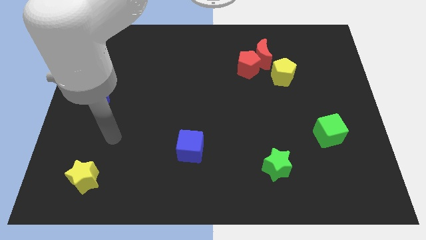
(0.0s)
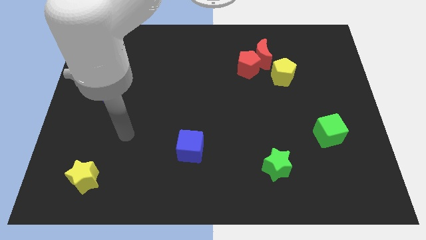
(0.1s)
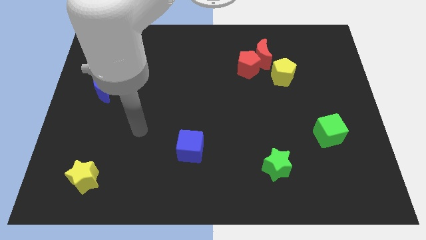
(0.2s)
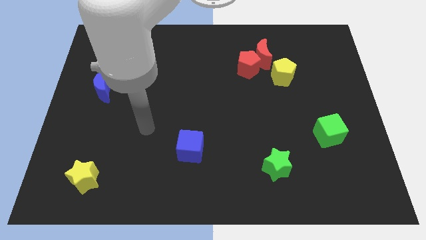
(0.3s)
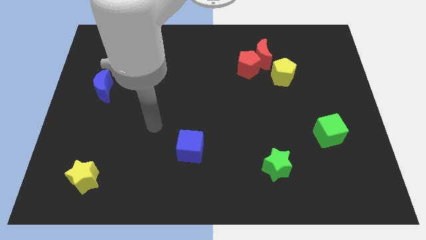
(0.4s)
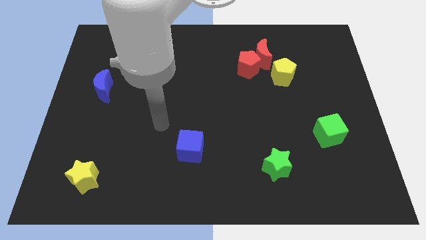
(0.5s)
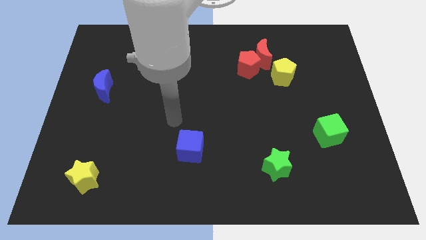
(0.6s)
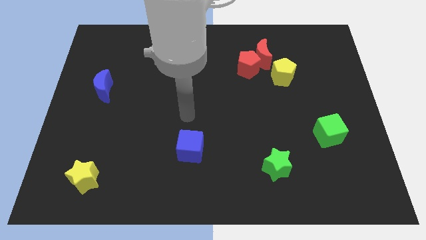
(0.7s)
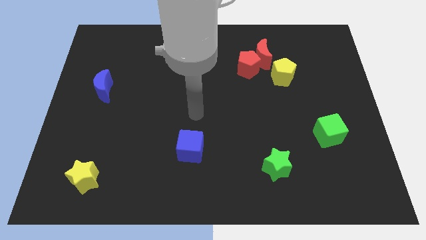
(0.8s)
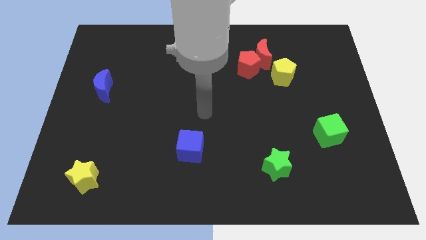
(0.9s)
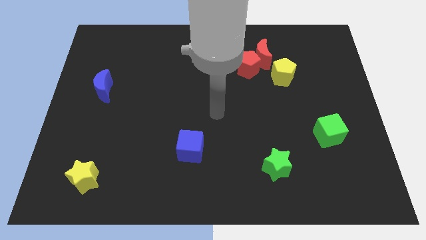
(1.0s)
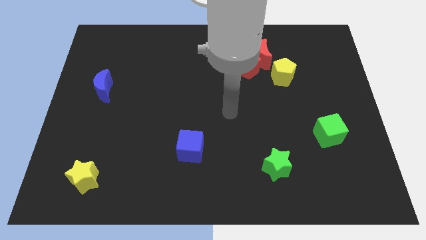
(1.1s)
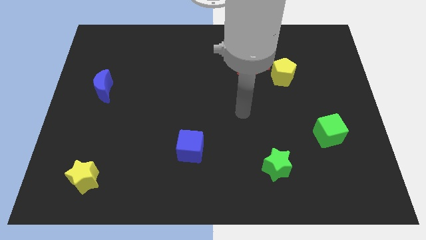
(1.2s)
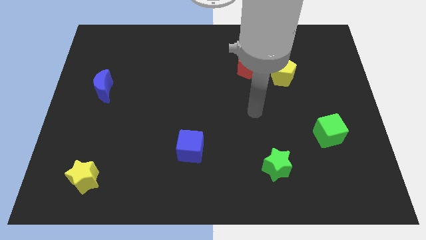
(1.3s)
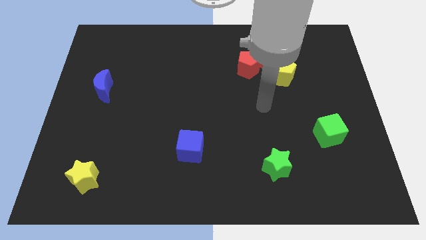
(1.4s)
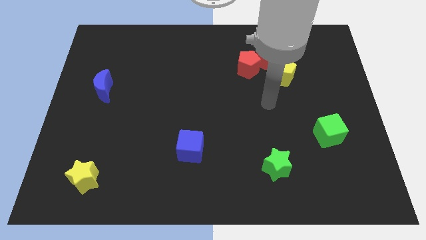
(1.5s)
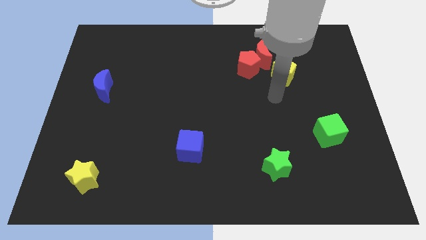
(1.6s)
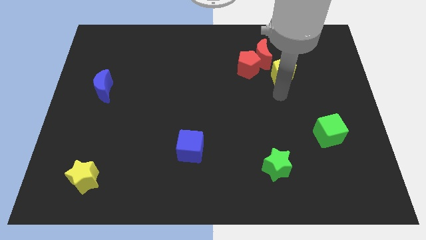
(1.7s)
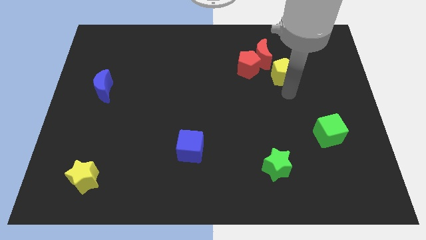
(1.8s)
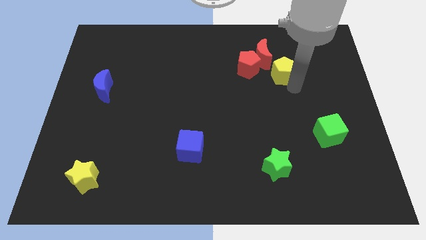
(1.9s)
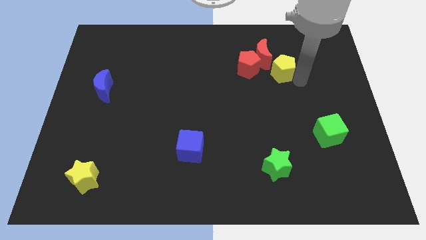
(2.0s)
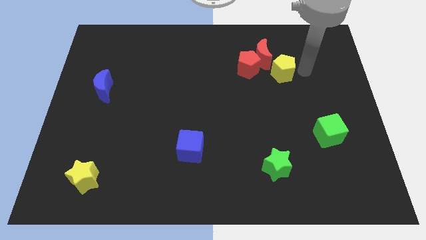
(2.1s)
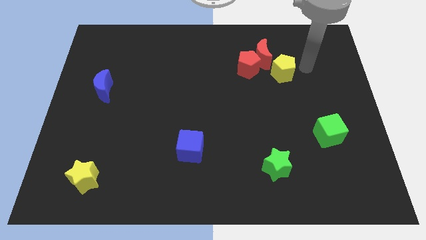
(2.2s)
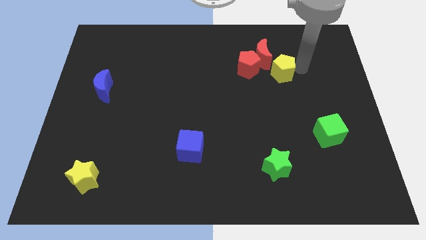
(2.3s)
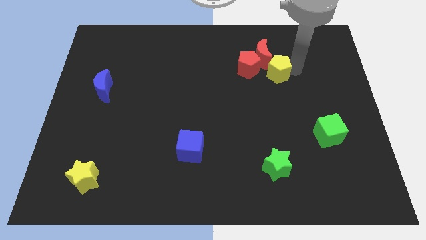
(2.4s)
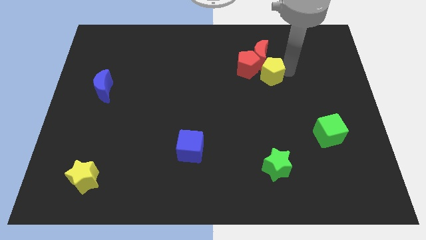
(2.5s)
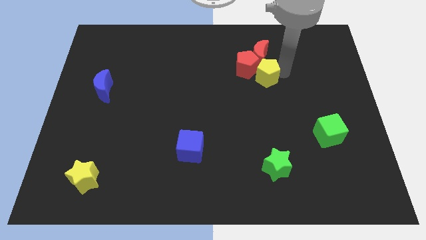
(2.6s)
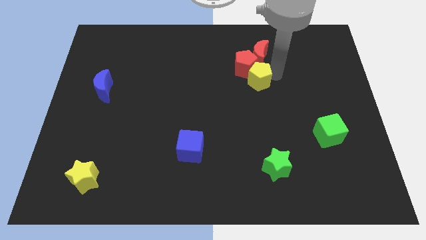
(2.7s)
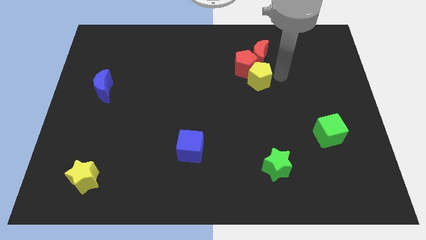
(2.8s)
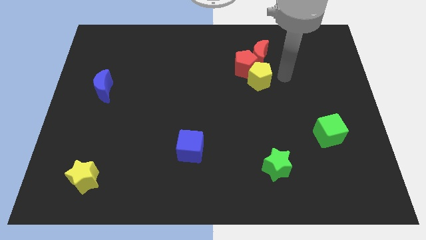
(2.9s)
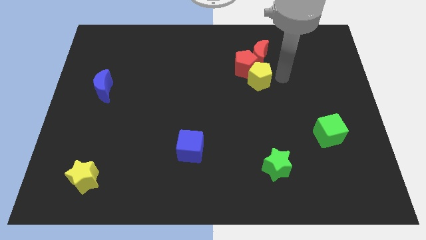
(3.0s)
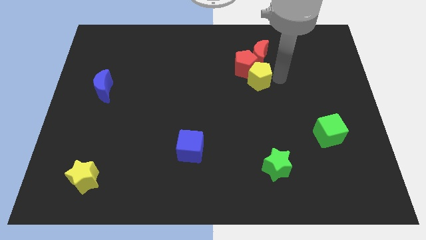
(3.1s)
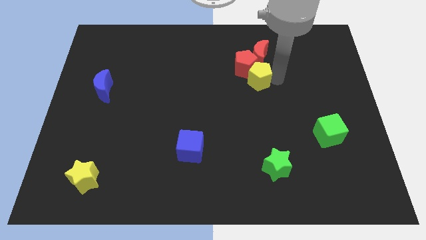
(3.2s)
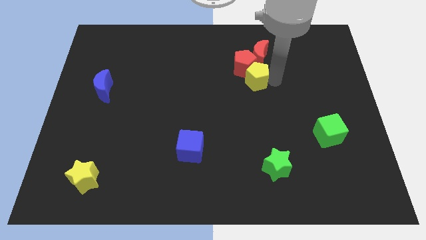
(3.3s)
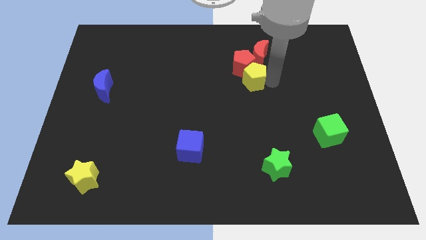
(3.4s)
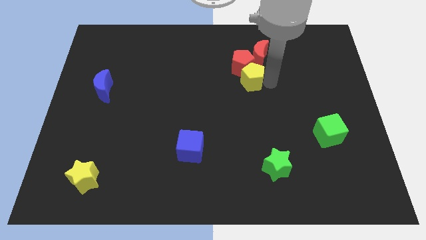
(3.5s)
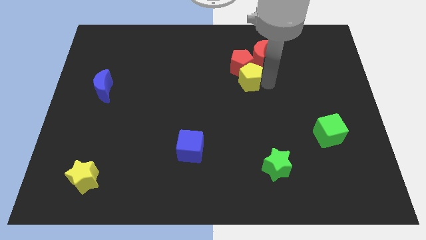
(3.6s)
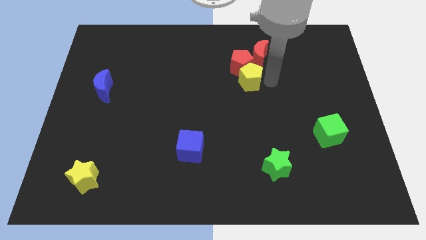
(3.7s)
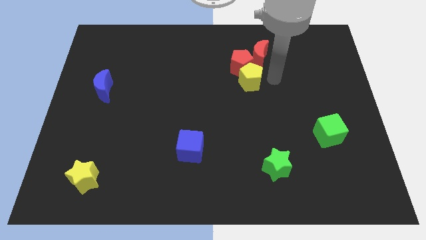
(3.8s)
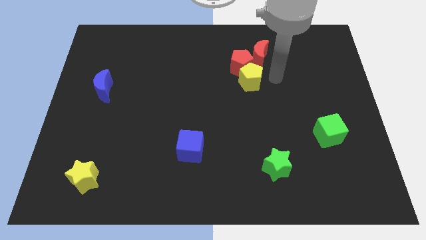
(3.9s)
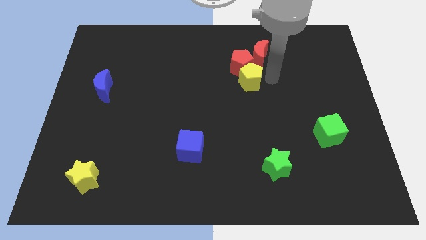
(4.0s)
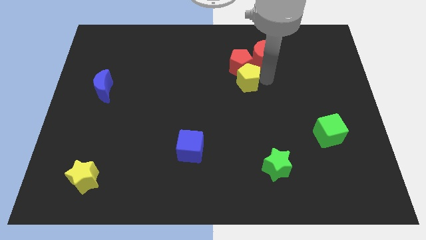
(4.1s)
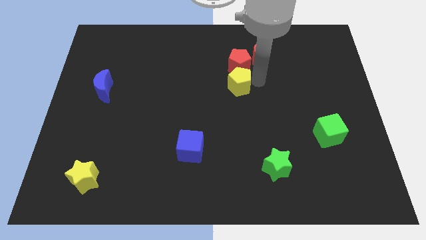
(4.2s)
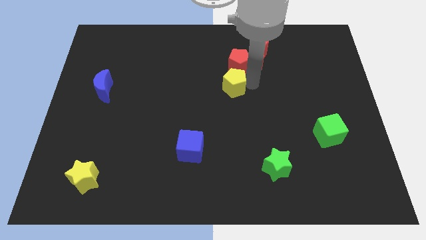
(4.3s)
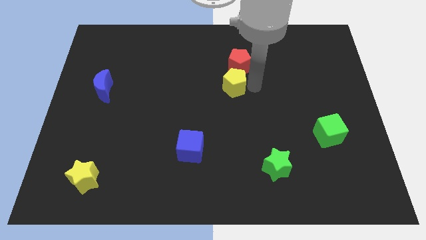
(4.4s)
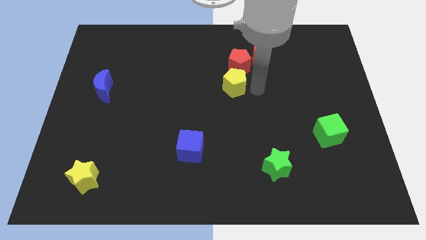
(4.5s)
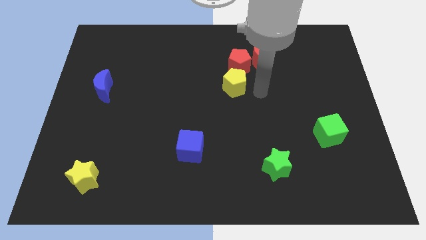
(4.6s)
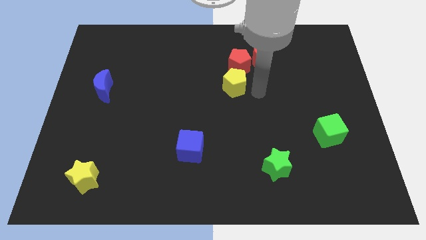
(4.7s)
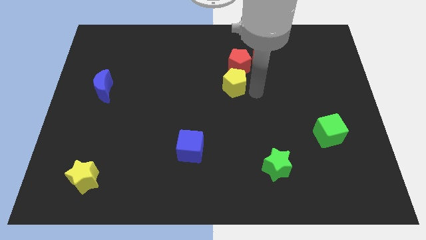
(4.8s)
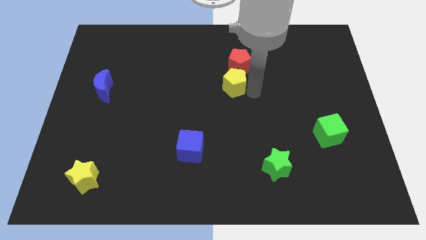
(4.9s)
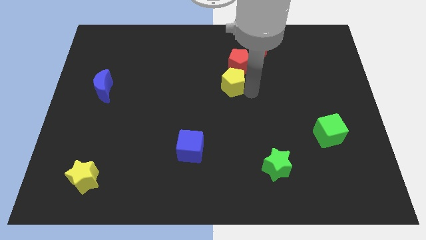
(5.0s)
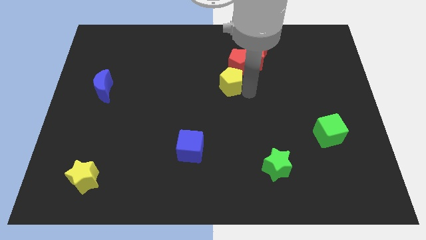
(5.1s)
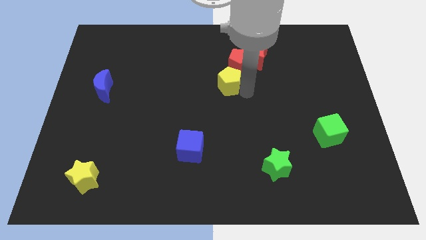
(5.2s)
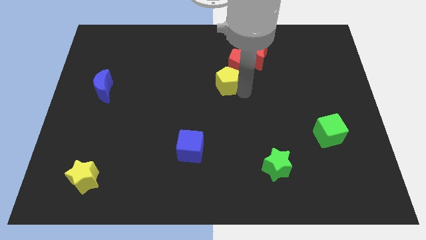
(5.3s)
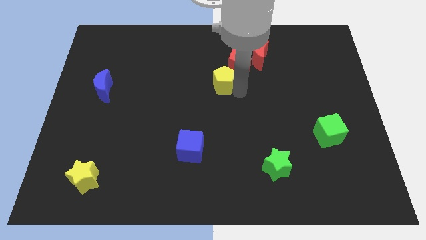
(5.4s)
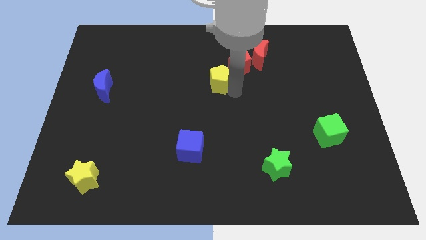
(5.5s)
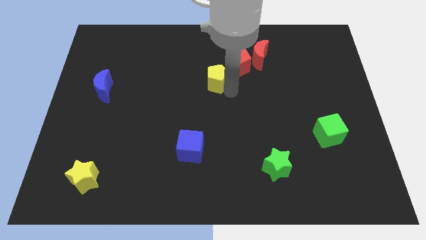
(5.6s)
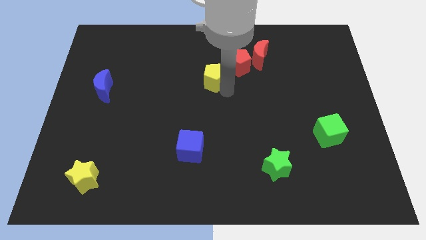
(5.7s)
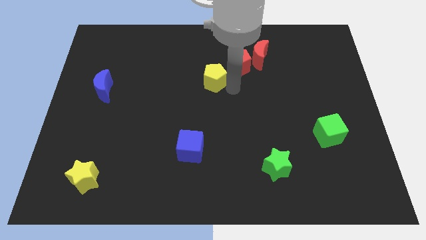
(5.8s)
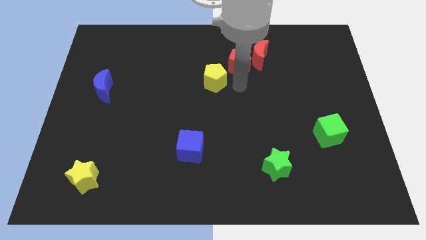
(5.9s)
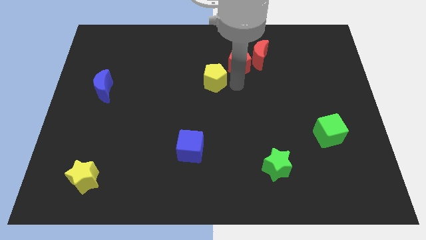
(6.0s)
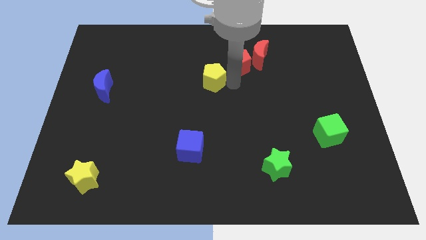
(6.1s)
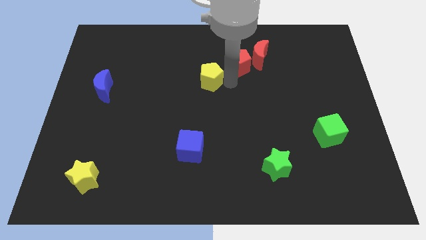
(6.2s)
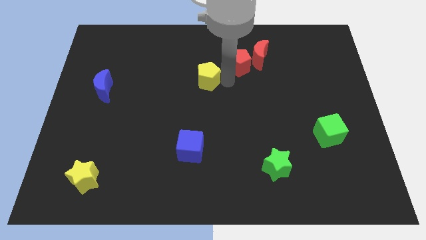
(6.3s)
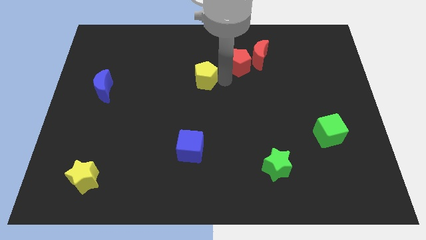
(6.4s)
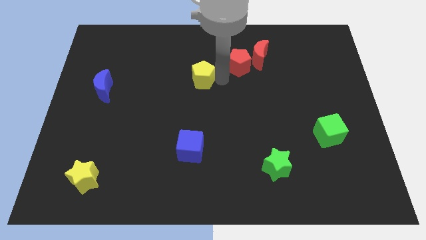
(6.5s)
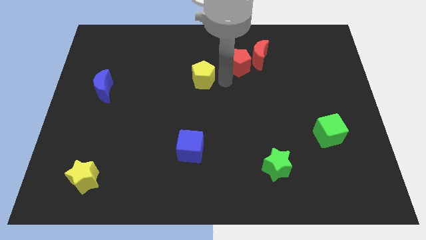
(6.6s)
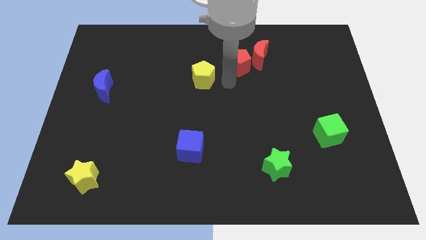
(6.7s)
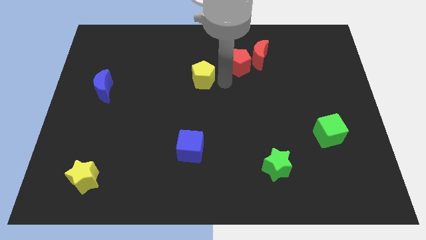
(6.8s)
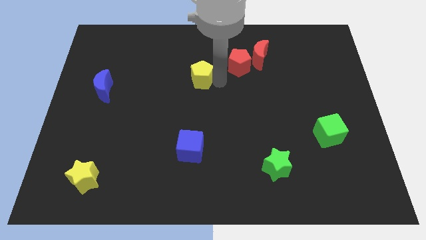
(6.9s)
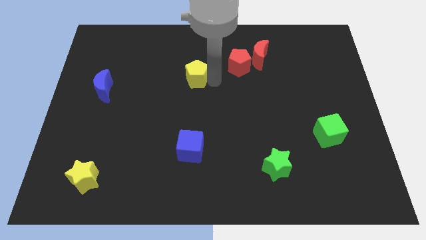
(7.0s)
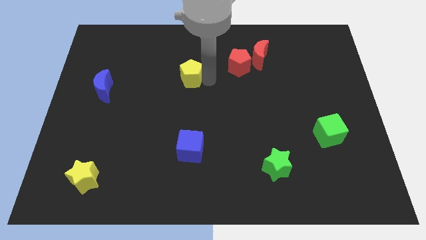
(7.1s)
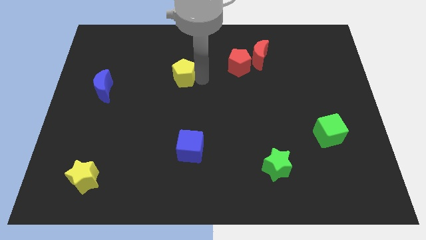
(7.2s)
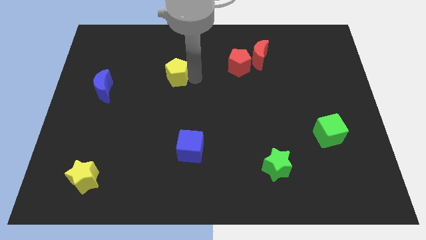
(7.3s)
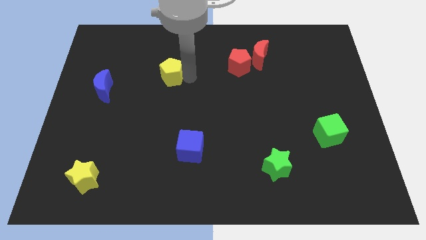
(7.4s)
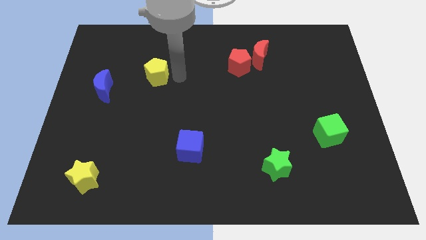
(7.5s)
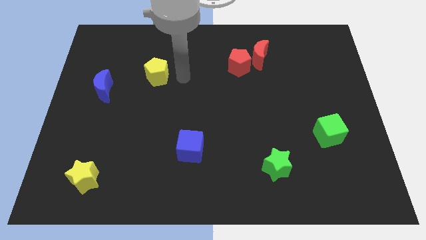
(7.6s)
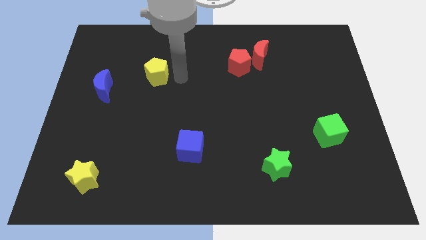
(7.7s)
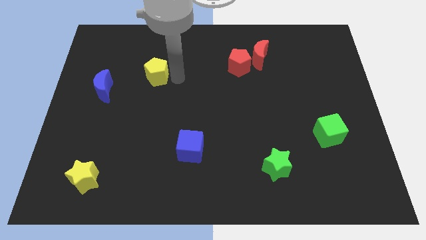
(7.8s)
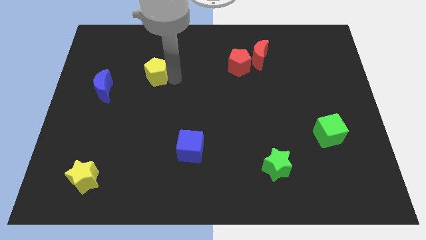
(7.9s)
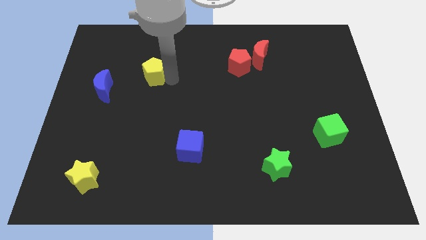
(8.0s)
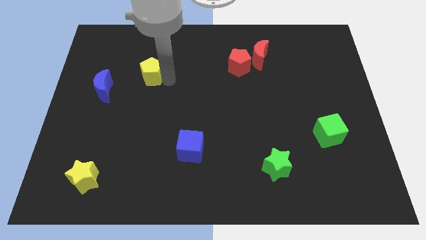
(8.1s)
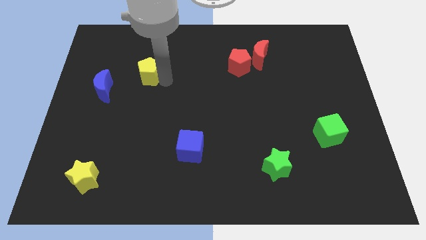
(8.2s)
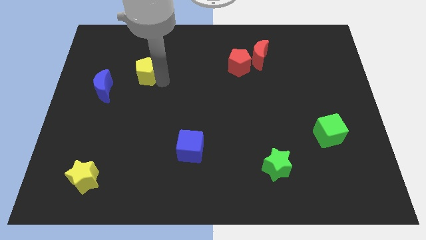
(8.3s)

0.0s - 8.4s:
move the yellow pentagon diagonally up and to the right of the blue moon
